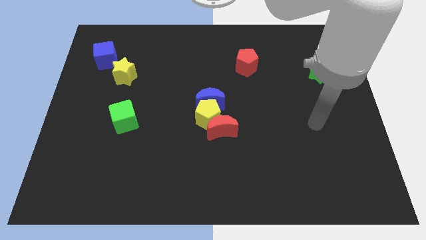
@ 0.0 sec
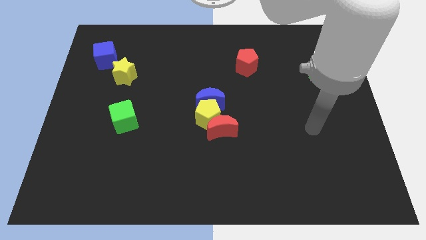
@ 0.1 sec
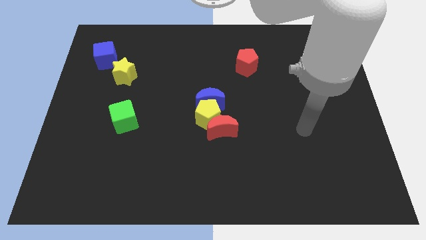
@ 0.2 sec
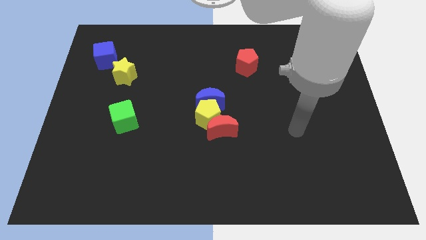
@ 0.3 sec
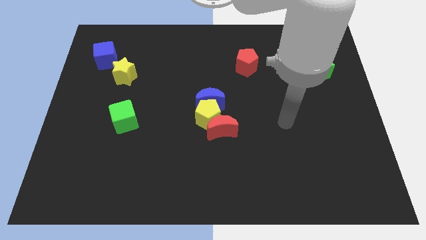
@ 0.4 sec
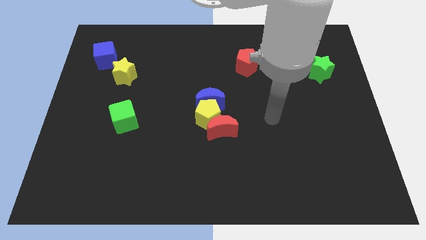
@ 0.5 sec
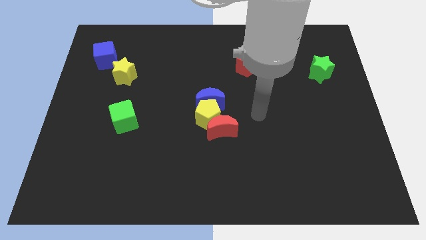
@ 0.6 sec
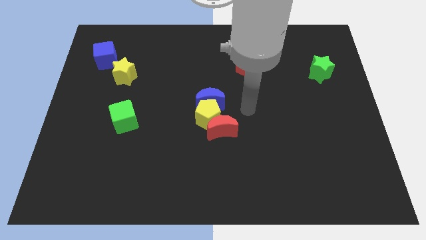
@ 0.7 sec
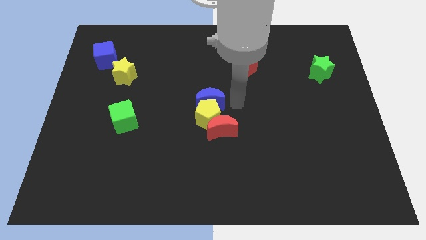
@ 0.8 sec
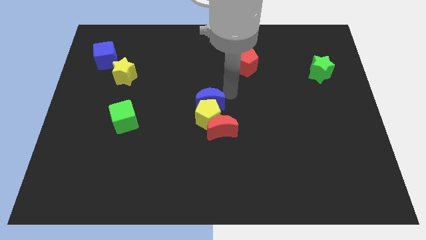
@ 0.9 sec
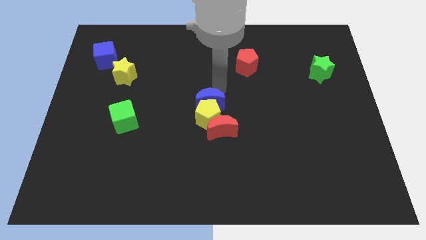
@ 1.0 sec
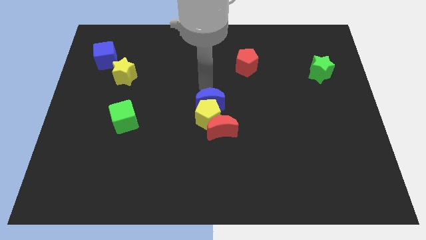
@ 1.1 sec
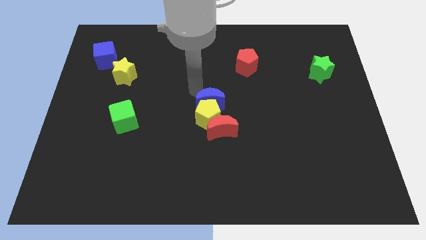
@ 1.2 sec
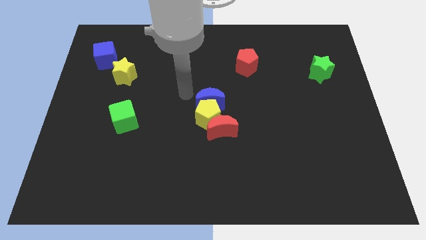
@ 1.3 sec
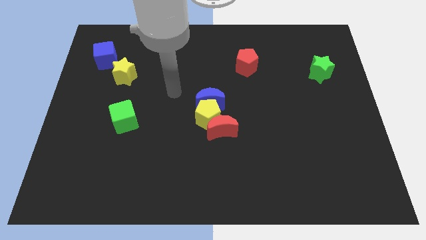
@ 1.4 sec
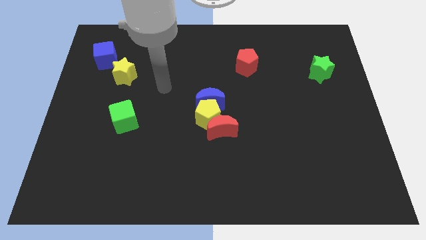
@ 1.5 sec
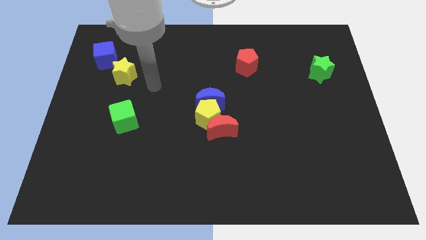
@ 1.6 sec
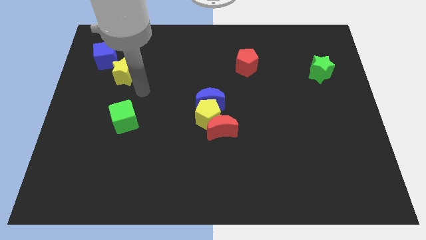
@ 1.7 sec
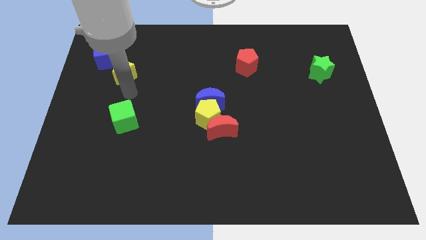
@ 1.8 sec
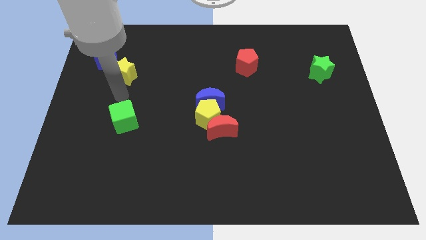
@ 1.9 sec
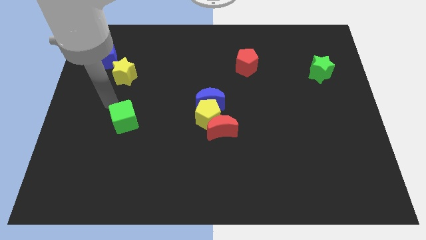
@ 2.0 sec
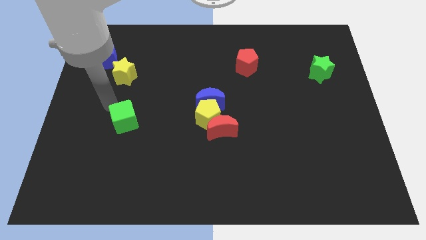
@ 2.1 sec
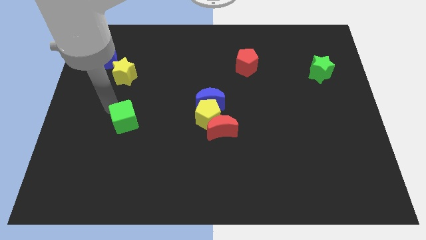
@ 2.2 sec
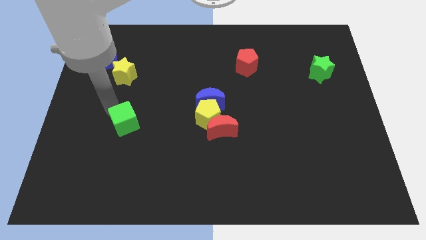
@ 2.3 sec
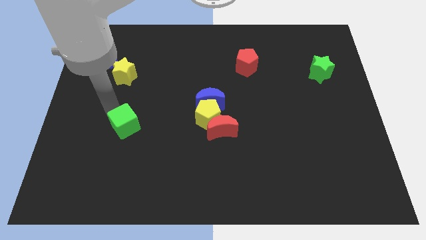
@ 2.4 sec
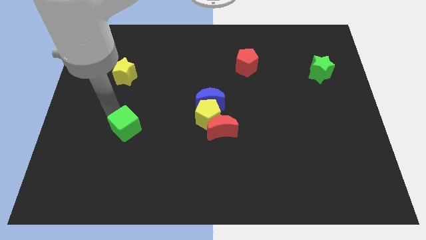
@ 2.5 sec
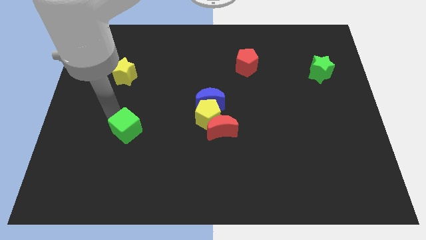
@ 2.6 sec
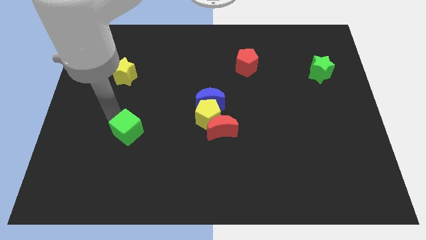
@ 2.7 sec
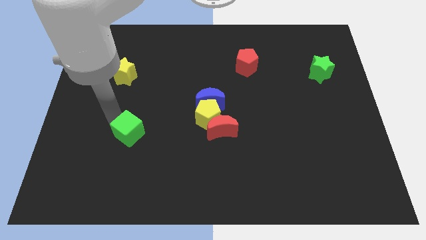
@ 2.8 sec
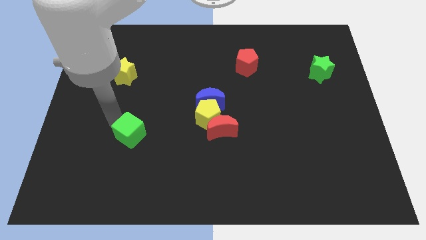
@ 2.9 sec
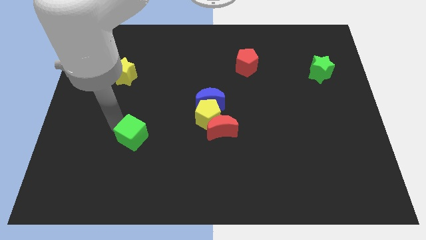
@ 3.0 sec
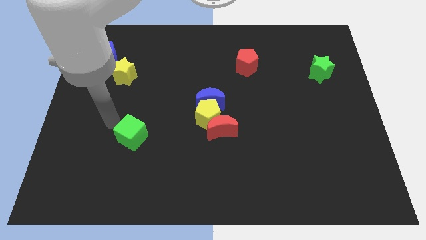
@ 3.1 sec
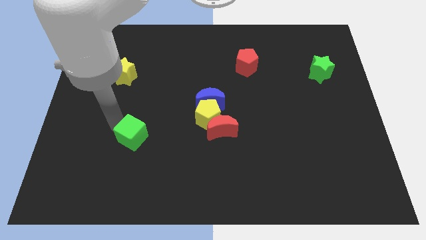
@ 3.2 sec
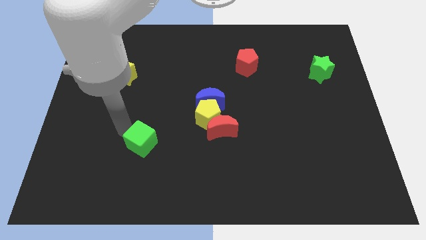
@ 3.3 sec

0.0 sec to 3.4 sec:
slide the green cube somewhat diagonally downwards and to the right

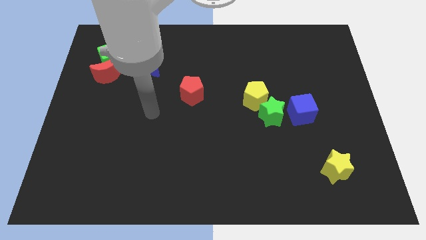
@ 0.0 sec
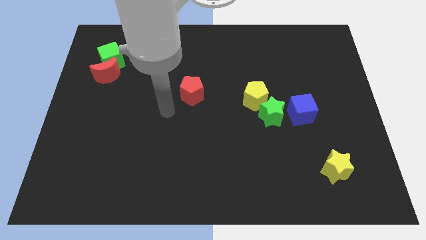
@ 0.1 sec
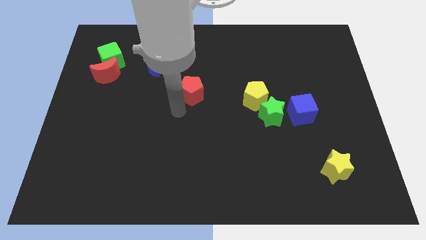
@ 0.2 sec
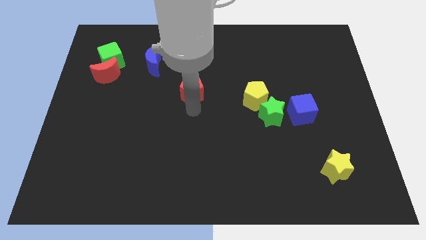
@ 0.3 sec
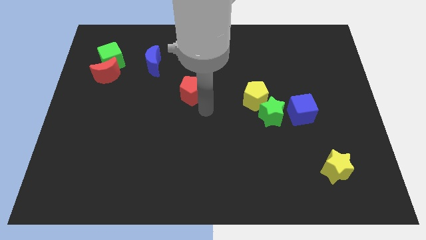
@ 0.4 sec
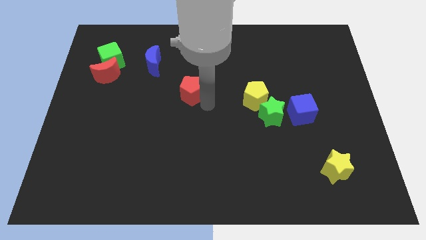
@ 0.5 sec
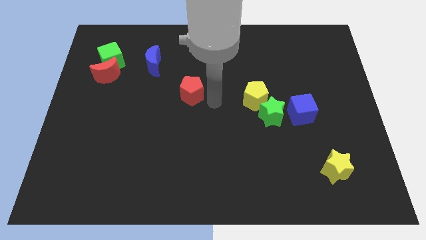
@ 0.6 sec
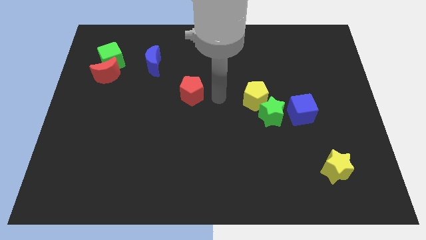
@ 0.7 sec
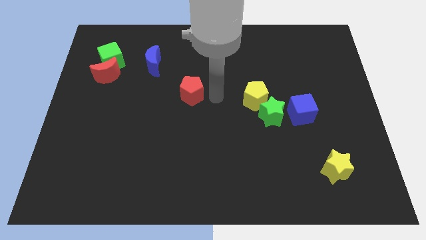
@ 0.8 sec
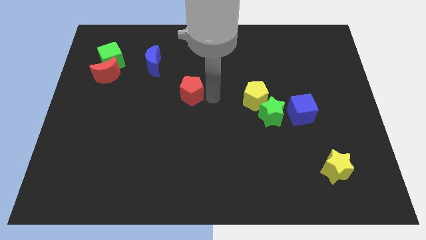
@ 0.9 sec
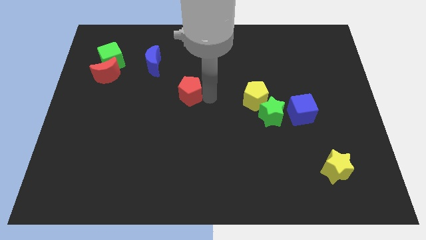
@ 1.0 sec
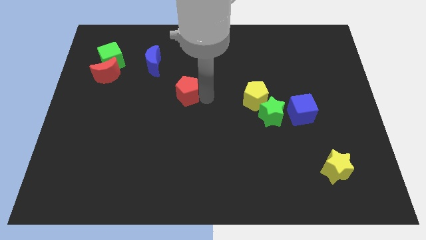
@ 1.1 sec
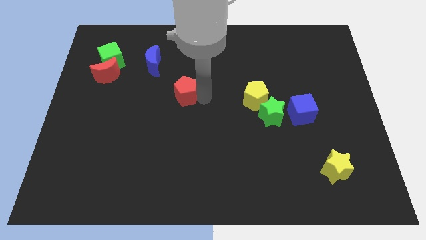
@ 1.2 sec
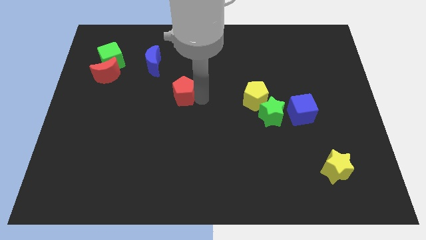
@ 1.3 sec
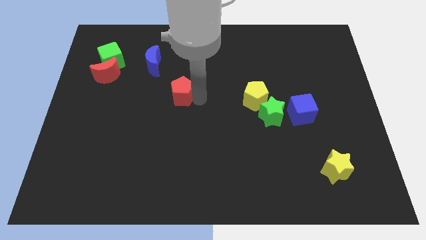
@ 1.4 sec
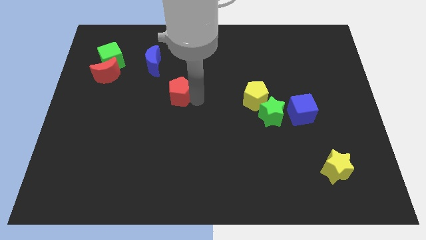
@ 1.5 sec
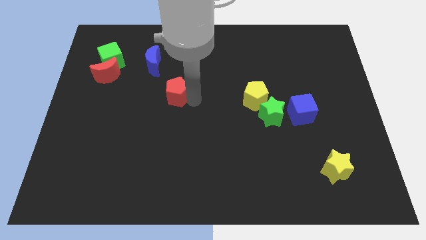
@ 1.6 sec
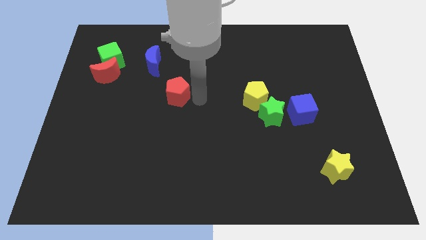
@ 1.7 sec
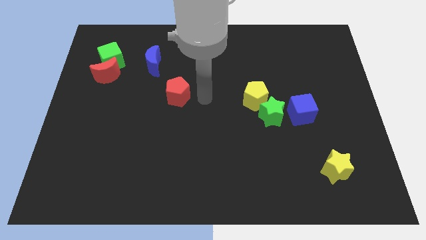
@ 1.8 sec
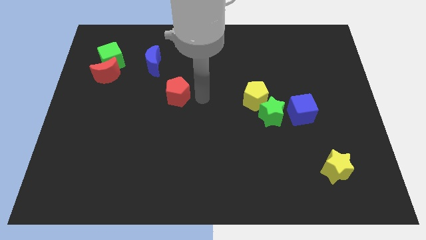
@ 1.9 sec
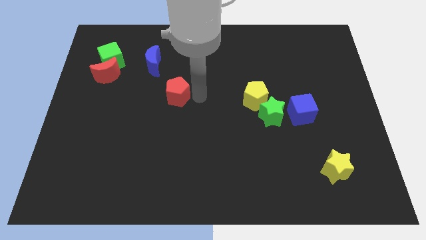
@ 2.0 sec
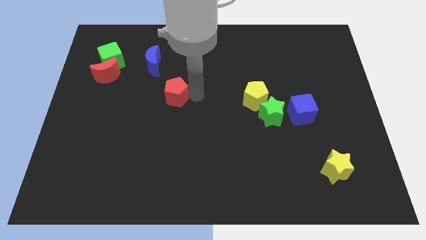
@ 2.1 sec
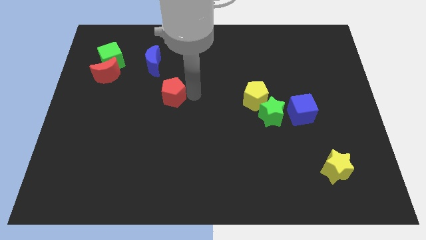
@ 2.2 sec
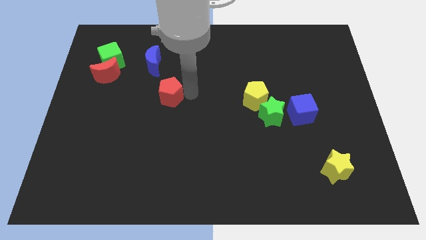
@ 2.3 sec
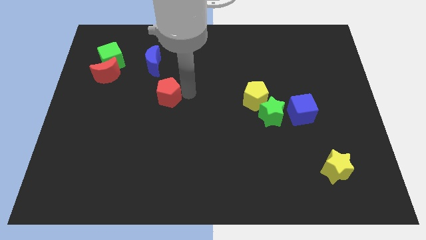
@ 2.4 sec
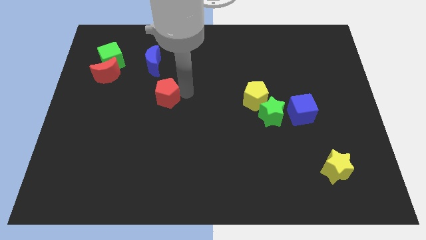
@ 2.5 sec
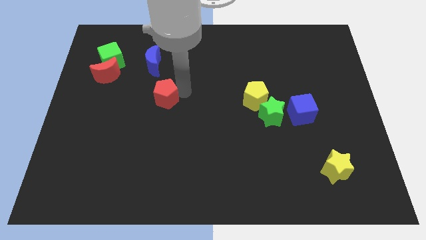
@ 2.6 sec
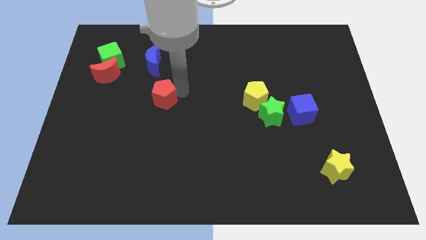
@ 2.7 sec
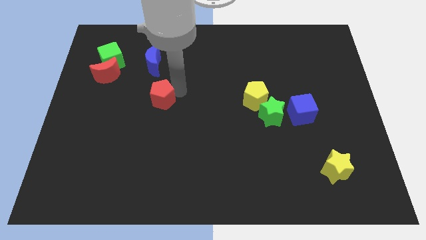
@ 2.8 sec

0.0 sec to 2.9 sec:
slightly slide the red pentagon left

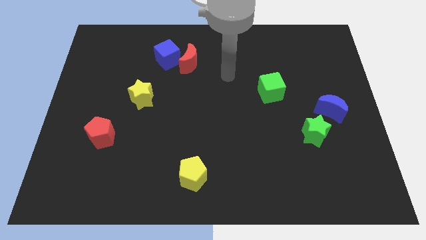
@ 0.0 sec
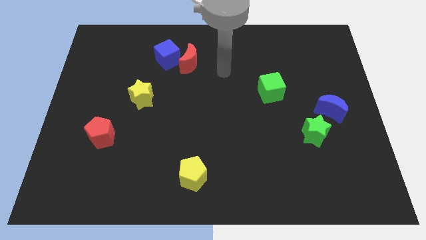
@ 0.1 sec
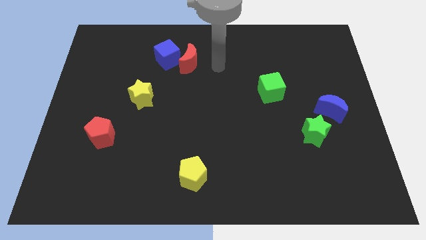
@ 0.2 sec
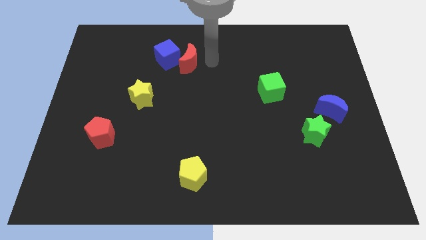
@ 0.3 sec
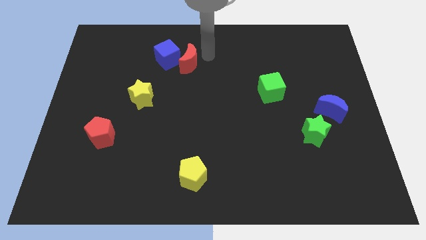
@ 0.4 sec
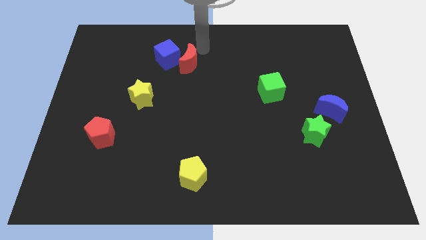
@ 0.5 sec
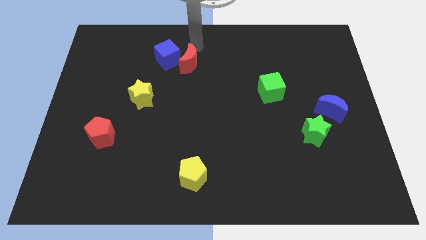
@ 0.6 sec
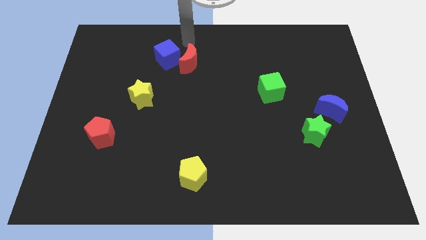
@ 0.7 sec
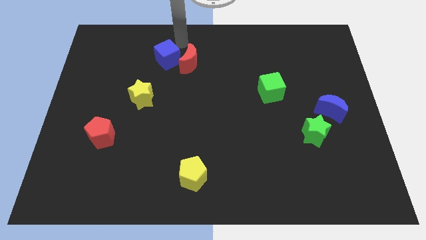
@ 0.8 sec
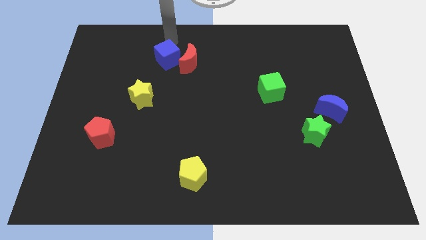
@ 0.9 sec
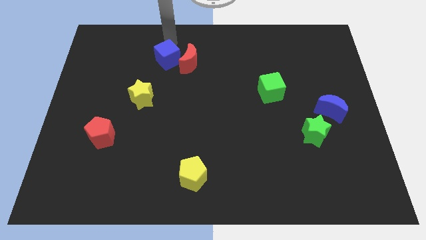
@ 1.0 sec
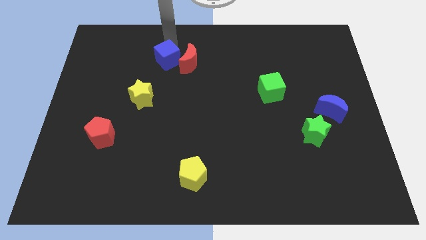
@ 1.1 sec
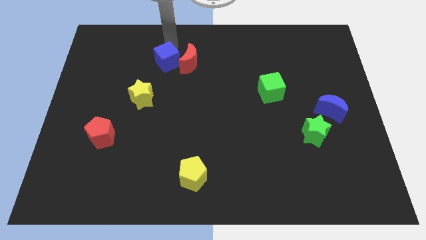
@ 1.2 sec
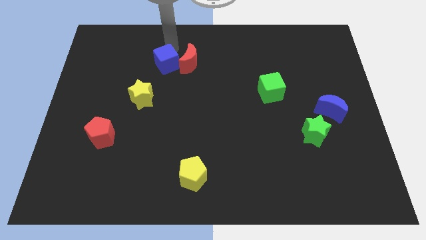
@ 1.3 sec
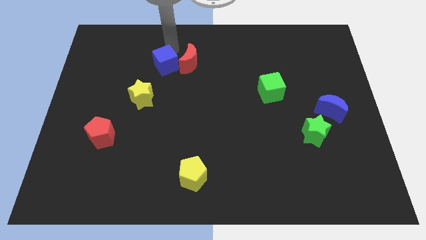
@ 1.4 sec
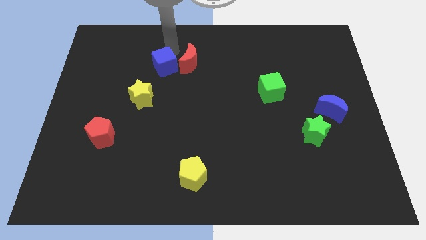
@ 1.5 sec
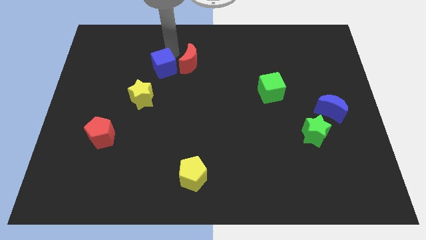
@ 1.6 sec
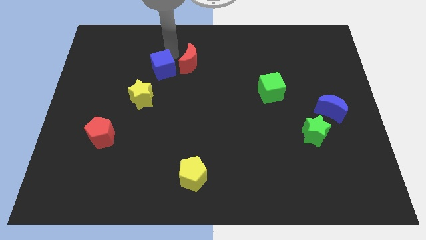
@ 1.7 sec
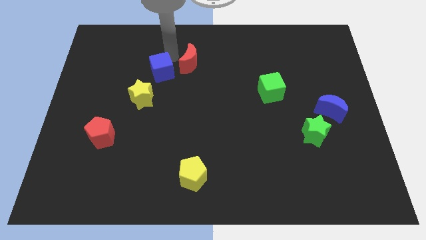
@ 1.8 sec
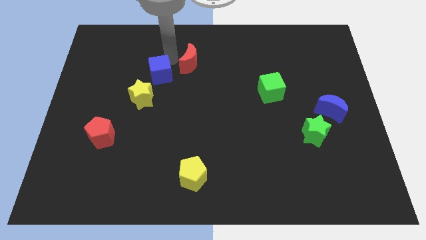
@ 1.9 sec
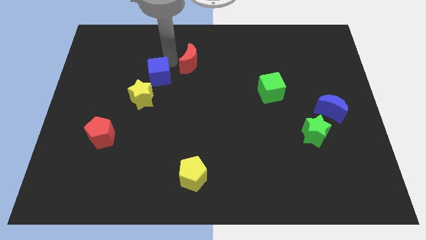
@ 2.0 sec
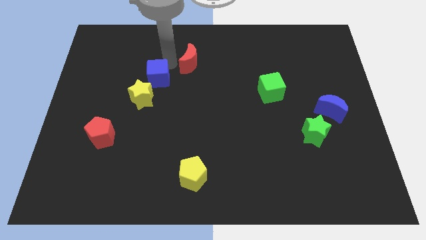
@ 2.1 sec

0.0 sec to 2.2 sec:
slide the blue cube down a bit
